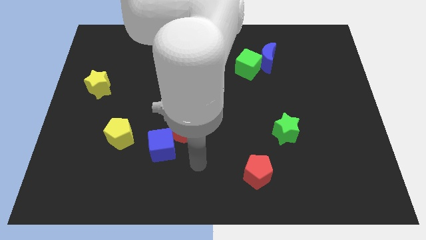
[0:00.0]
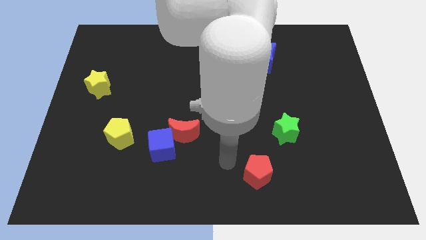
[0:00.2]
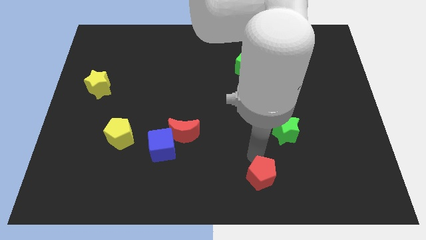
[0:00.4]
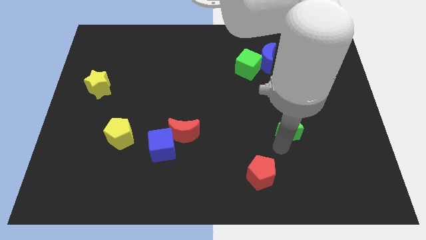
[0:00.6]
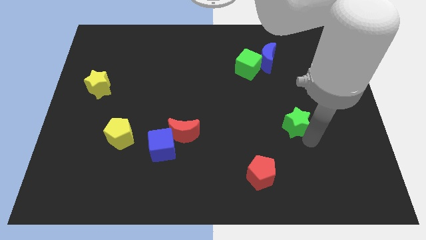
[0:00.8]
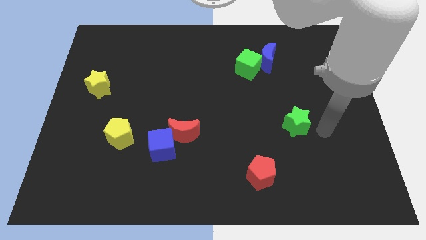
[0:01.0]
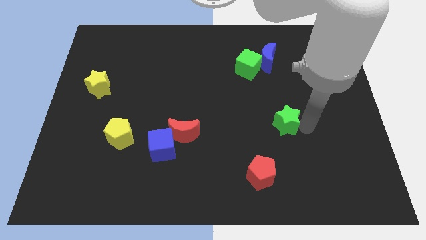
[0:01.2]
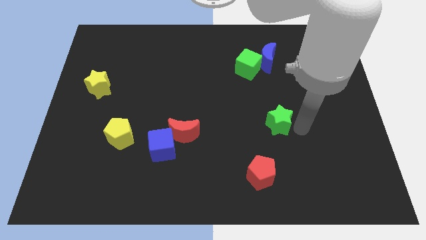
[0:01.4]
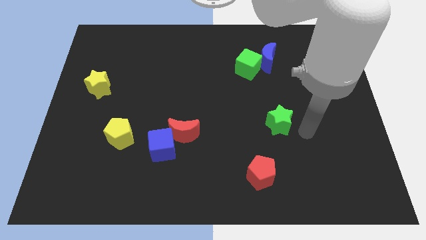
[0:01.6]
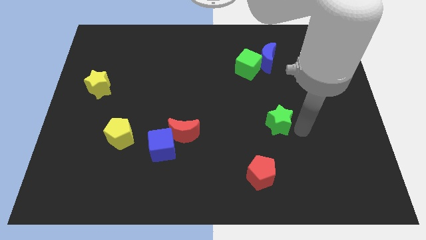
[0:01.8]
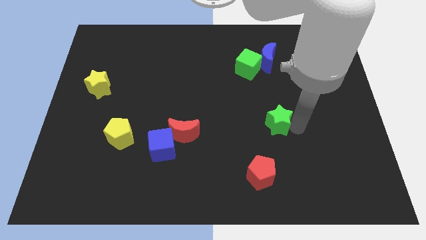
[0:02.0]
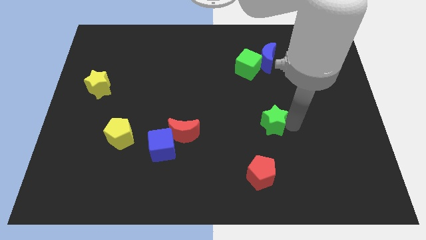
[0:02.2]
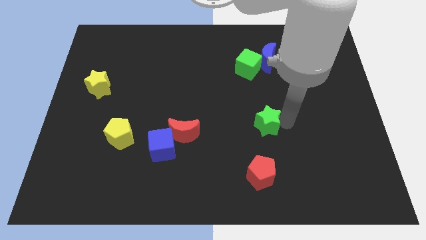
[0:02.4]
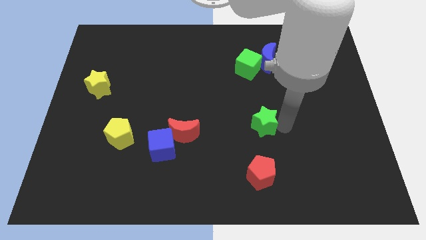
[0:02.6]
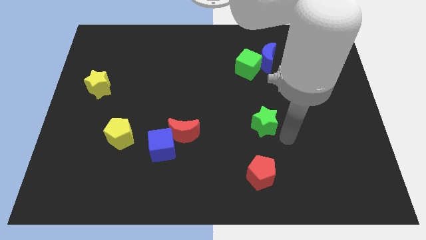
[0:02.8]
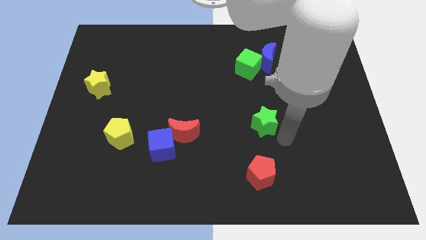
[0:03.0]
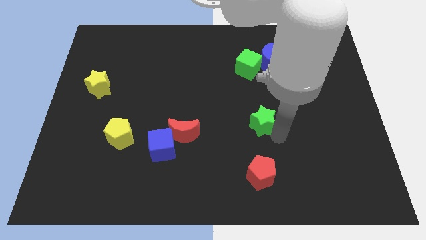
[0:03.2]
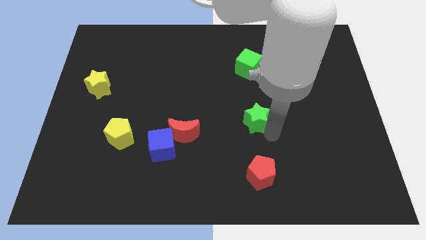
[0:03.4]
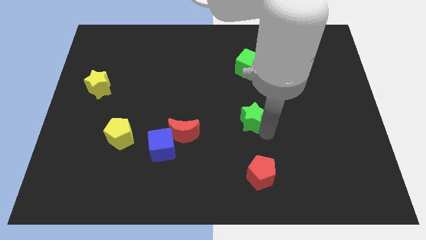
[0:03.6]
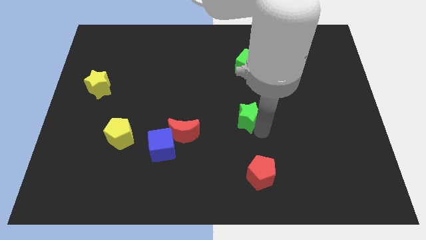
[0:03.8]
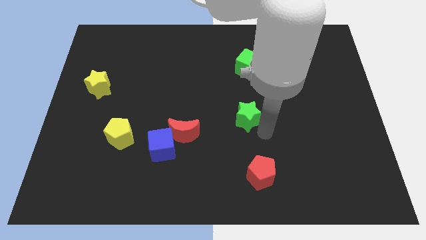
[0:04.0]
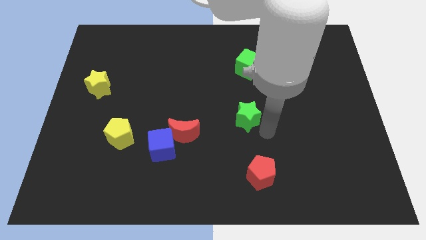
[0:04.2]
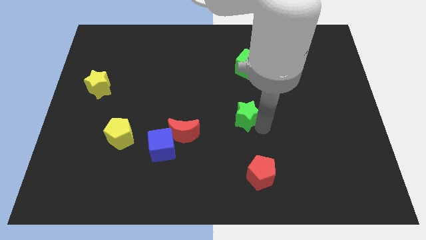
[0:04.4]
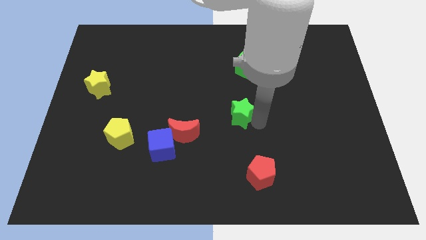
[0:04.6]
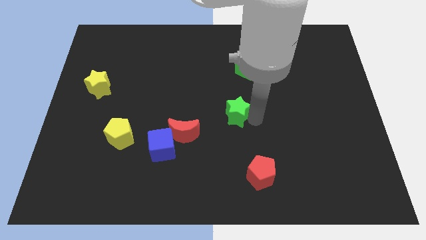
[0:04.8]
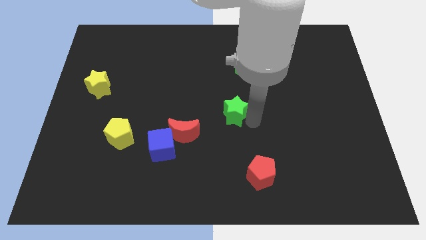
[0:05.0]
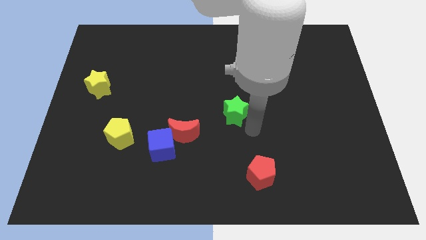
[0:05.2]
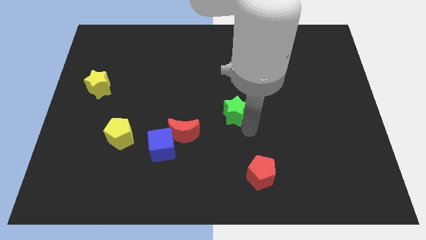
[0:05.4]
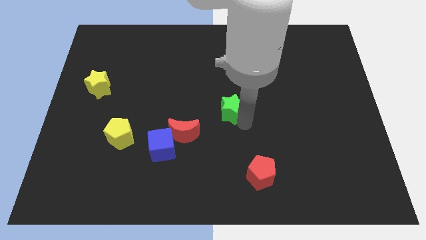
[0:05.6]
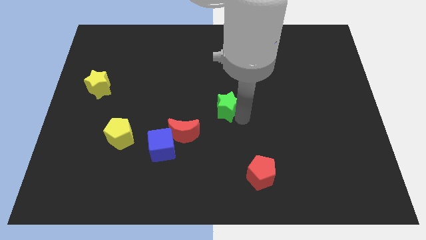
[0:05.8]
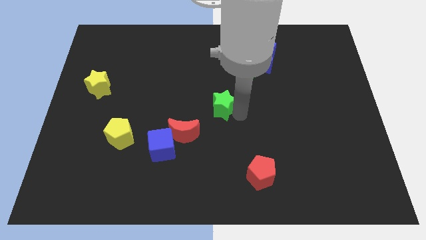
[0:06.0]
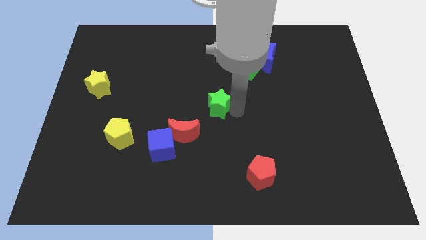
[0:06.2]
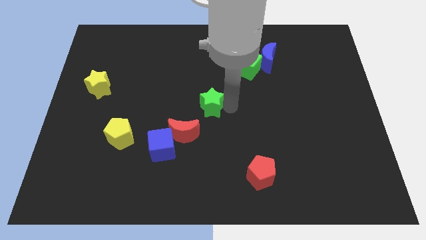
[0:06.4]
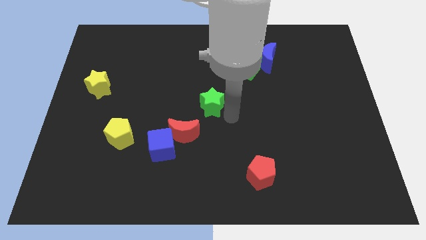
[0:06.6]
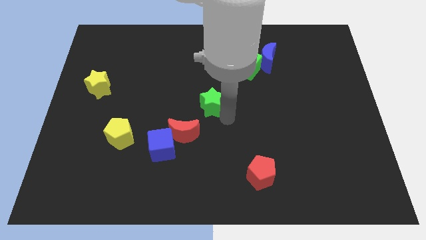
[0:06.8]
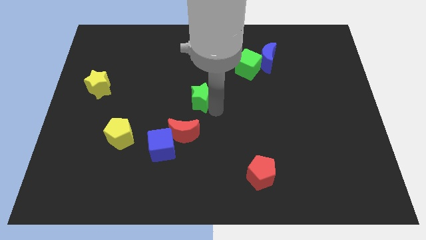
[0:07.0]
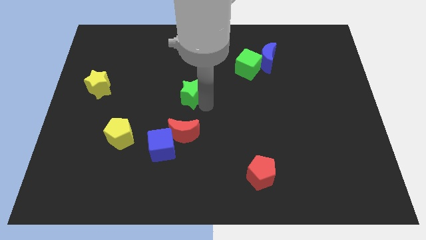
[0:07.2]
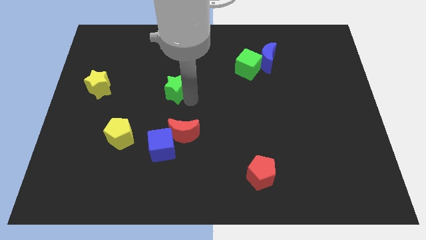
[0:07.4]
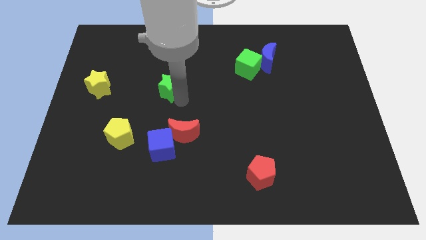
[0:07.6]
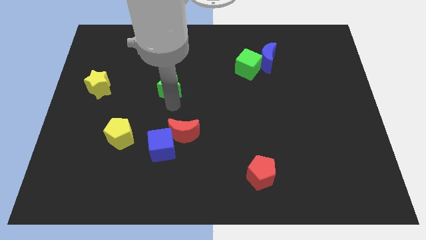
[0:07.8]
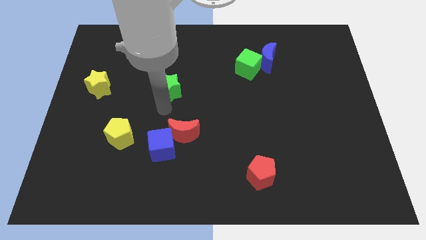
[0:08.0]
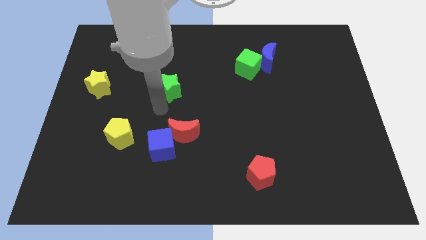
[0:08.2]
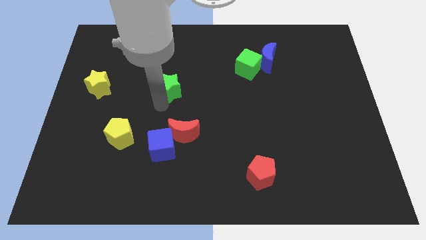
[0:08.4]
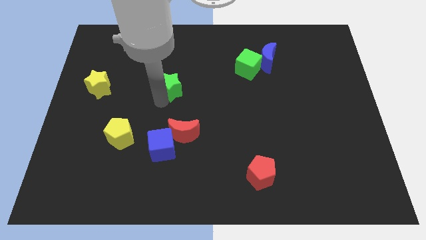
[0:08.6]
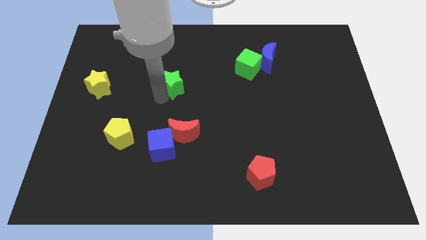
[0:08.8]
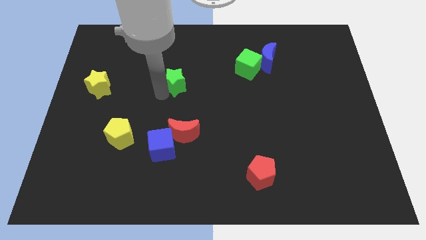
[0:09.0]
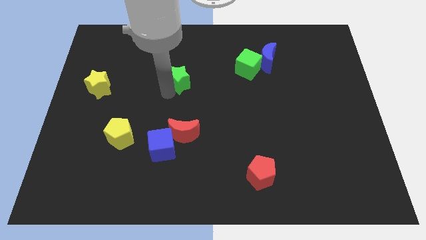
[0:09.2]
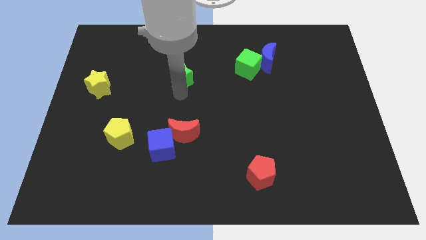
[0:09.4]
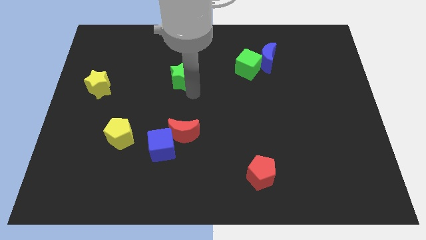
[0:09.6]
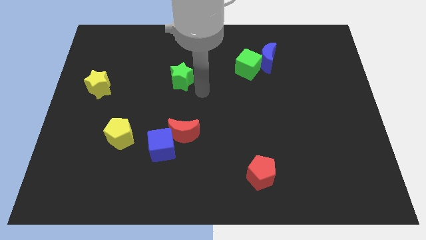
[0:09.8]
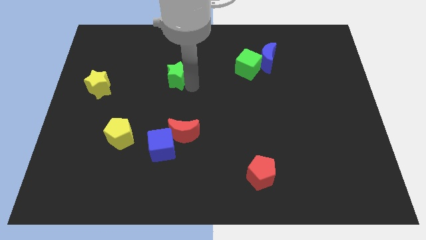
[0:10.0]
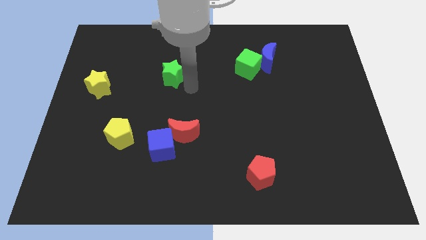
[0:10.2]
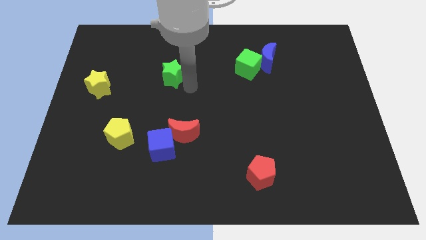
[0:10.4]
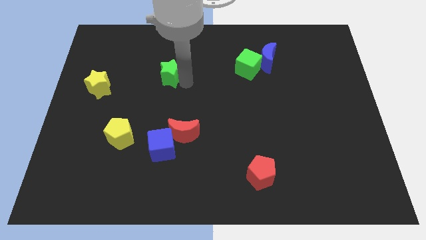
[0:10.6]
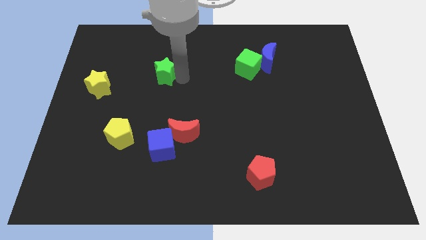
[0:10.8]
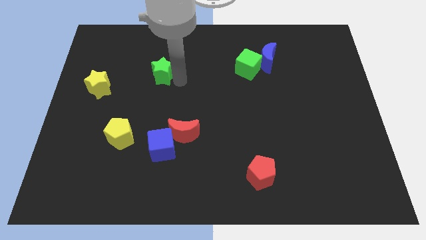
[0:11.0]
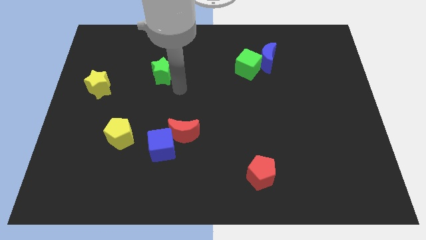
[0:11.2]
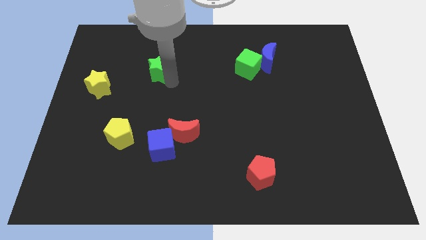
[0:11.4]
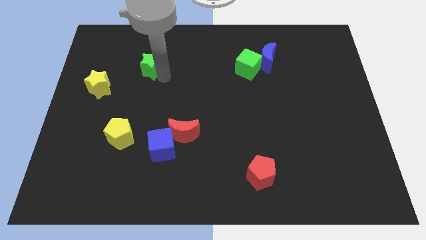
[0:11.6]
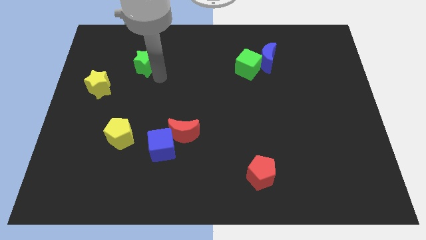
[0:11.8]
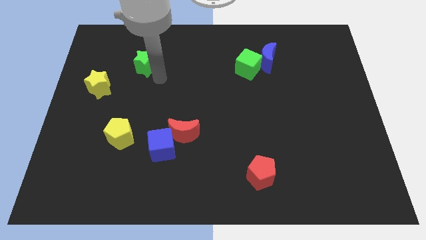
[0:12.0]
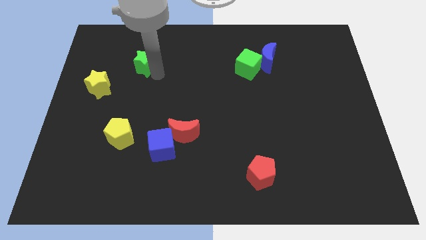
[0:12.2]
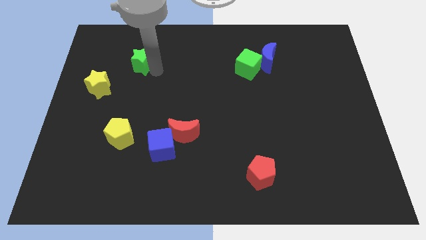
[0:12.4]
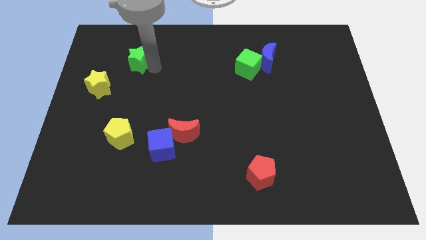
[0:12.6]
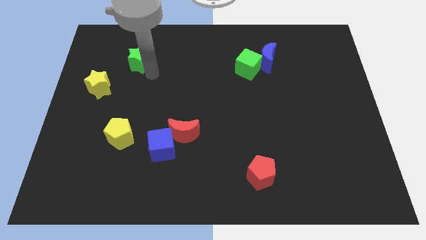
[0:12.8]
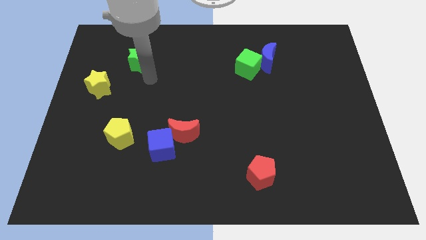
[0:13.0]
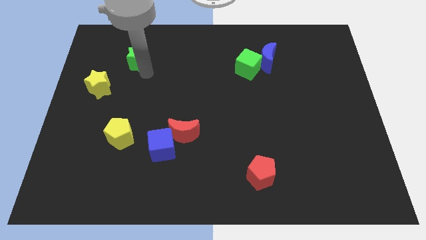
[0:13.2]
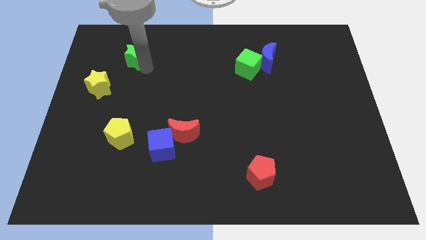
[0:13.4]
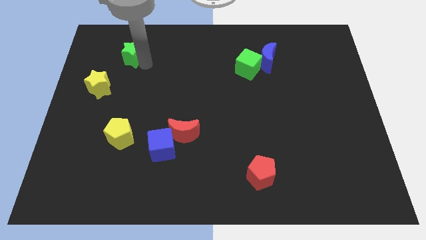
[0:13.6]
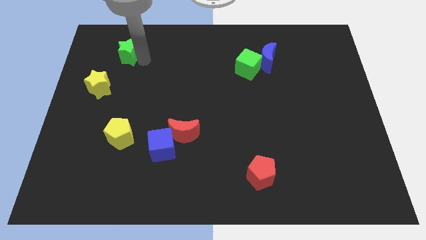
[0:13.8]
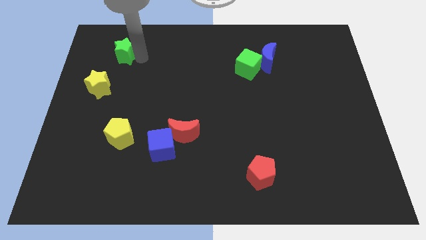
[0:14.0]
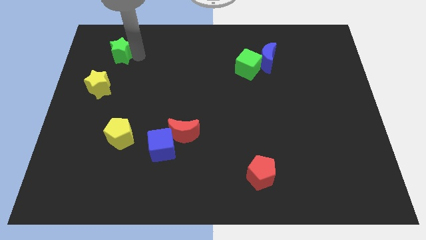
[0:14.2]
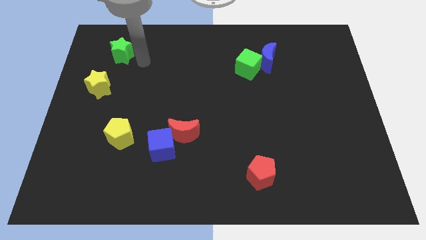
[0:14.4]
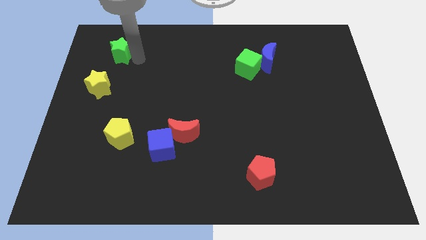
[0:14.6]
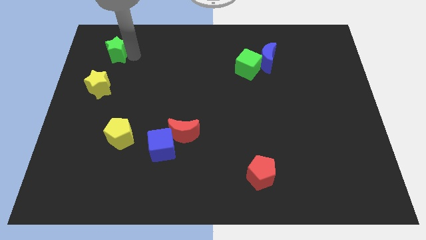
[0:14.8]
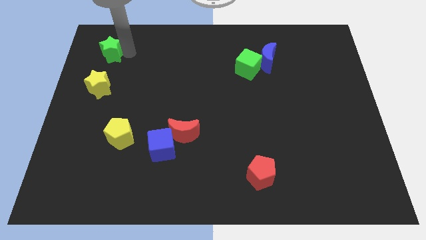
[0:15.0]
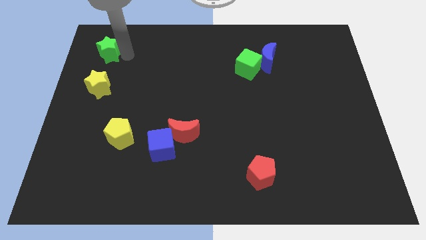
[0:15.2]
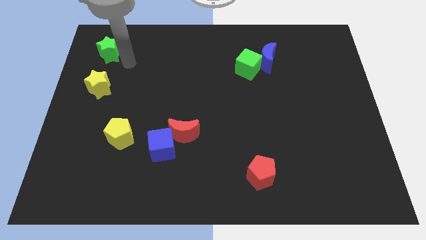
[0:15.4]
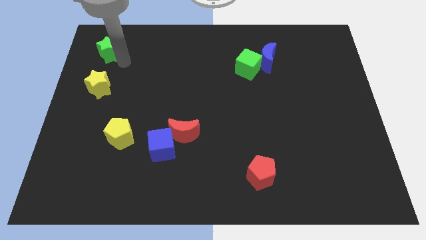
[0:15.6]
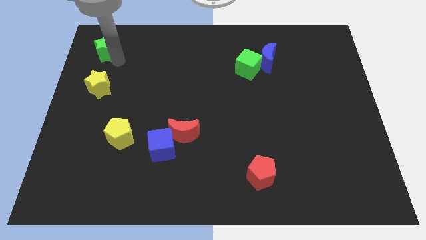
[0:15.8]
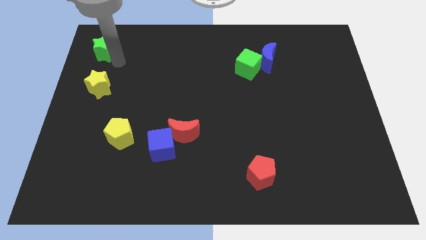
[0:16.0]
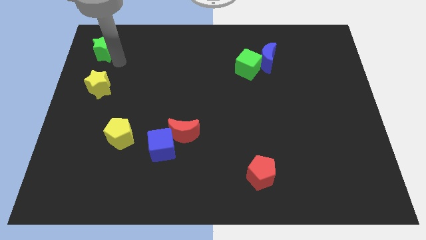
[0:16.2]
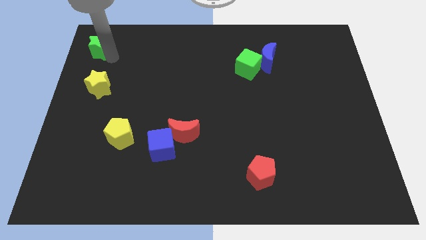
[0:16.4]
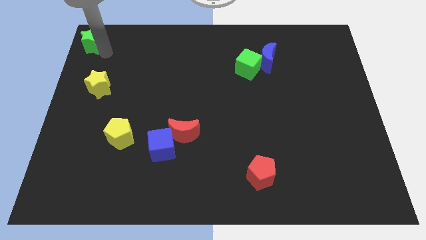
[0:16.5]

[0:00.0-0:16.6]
push the green star to the upper left corner
